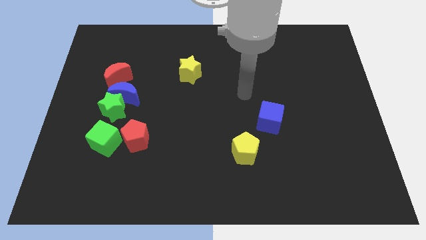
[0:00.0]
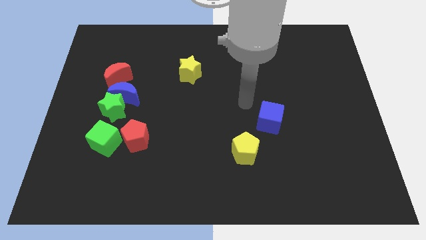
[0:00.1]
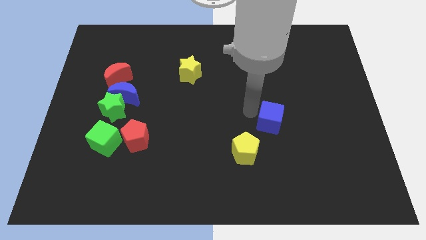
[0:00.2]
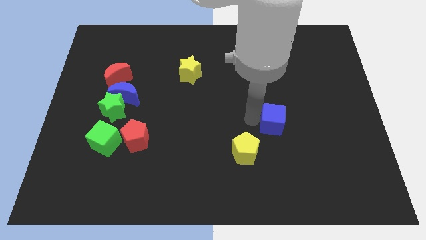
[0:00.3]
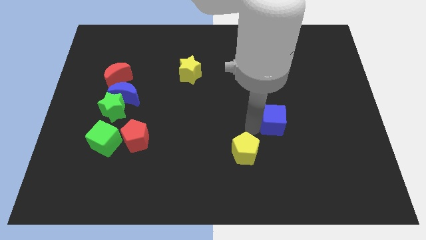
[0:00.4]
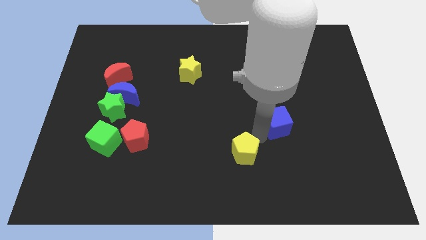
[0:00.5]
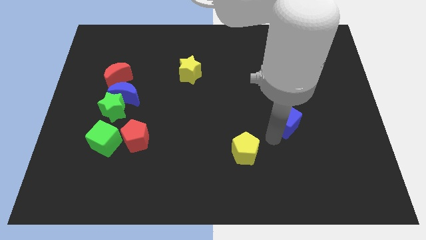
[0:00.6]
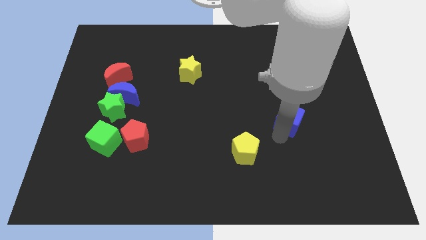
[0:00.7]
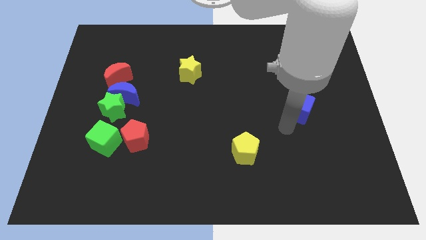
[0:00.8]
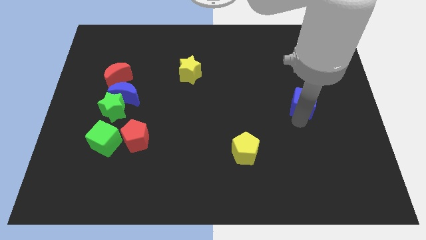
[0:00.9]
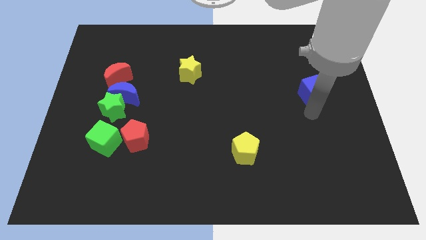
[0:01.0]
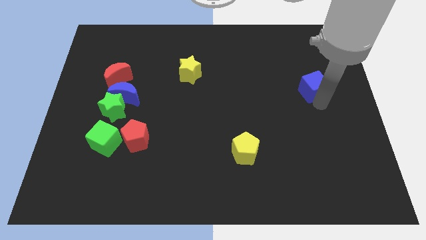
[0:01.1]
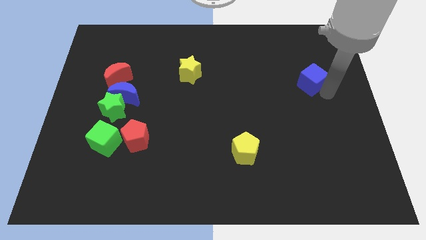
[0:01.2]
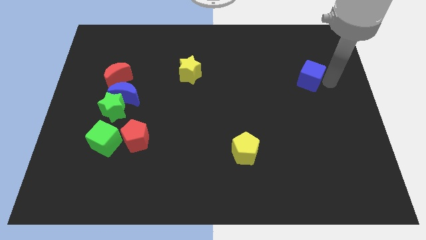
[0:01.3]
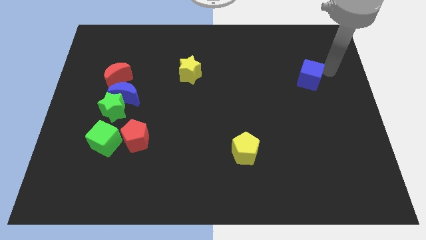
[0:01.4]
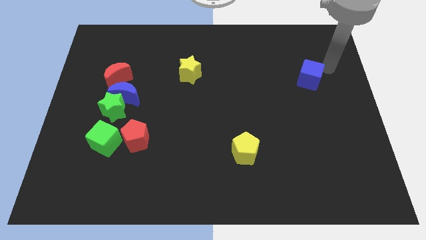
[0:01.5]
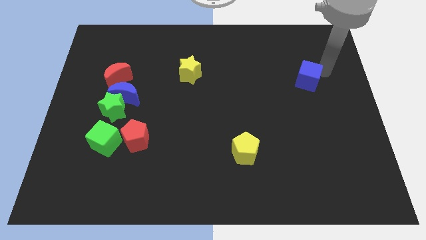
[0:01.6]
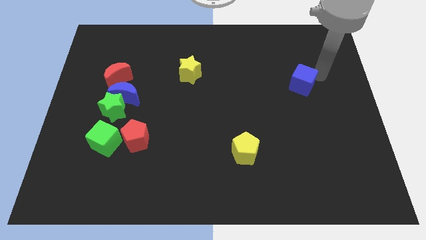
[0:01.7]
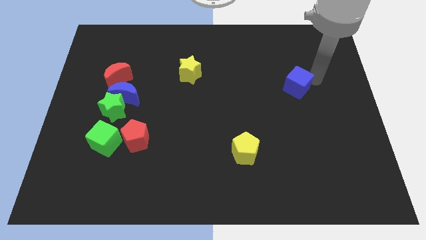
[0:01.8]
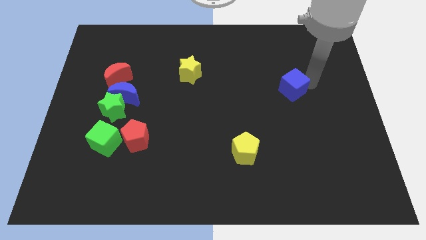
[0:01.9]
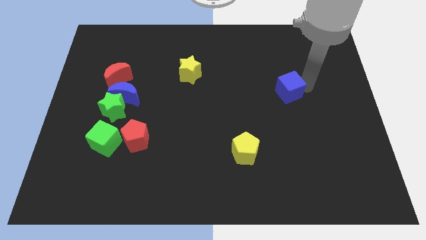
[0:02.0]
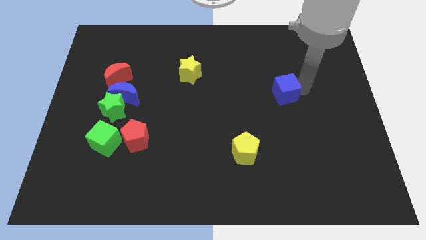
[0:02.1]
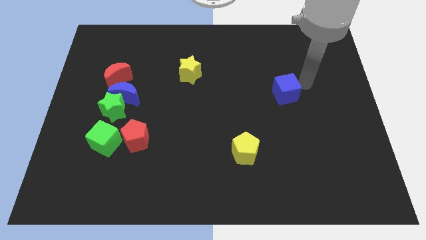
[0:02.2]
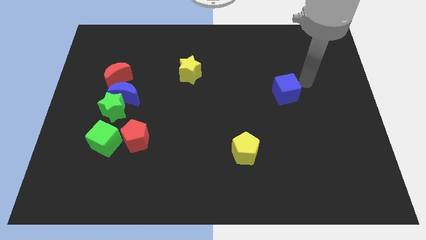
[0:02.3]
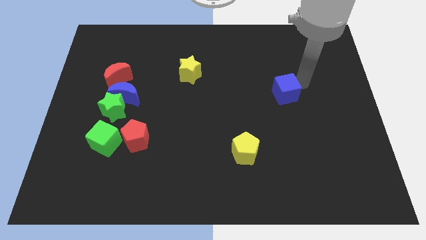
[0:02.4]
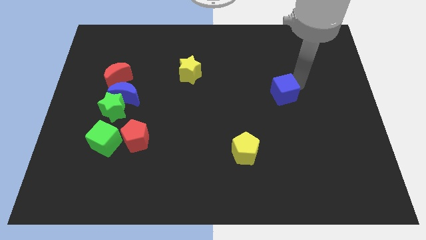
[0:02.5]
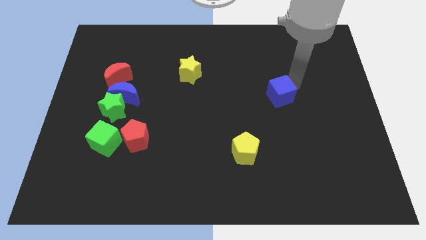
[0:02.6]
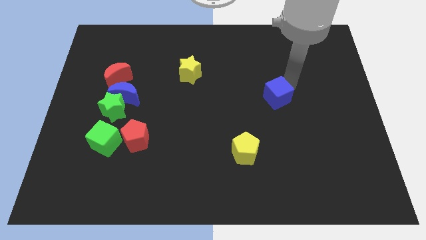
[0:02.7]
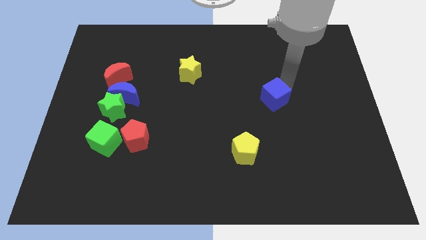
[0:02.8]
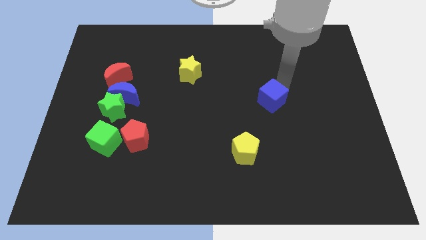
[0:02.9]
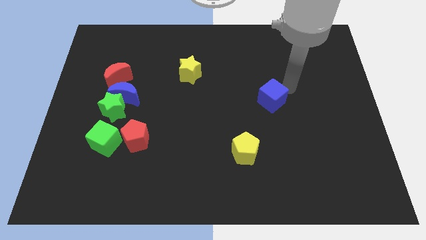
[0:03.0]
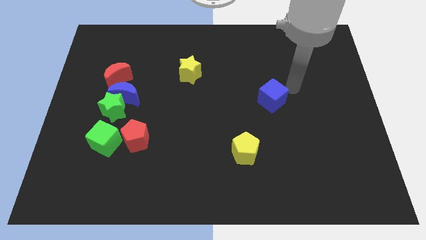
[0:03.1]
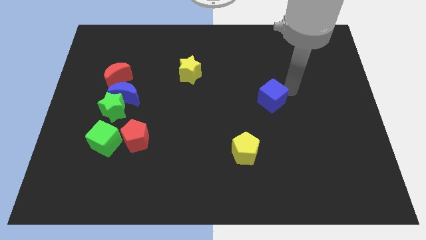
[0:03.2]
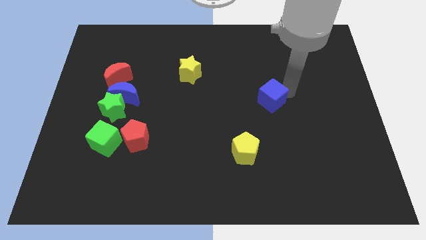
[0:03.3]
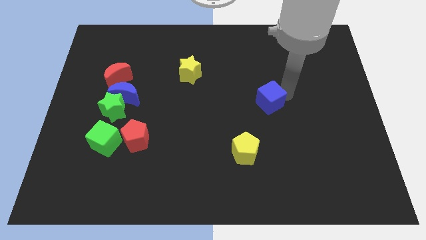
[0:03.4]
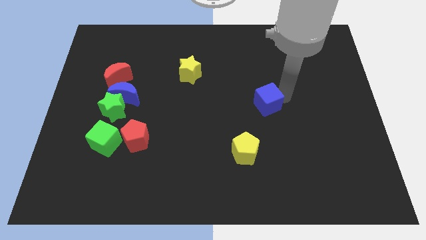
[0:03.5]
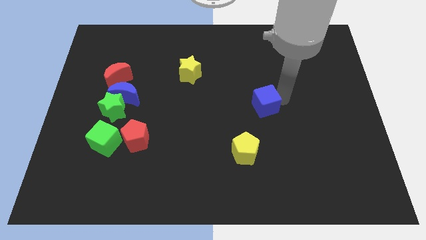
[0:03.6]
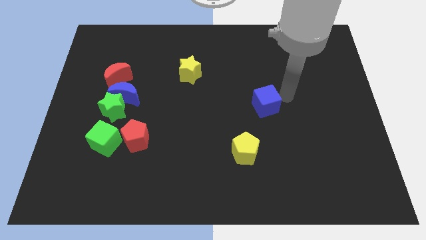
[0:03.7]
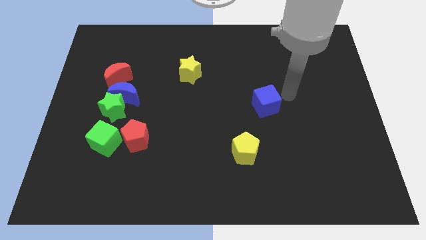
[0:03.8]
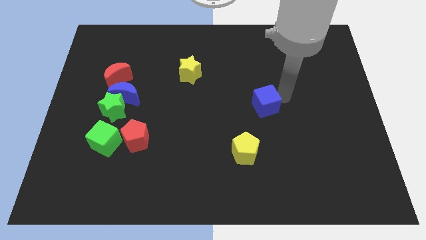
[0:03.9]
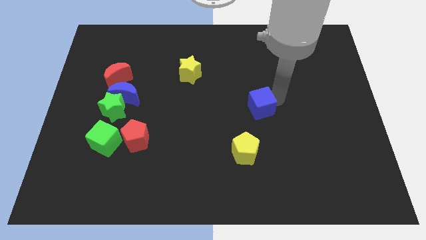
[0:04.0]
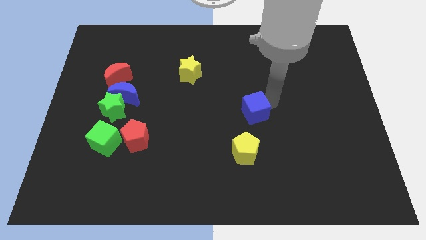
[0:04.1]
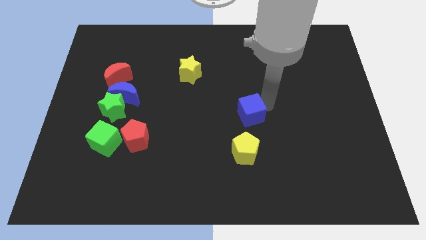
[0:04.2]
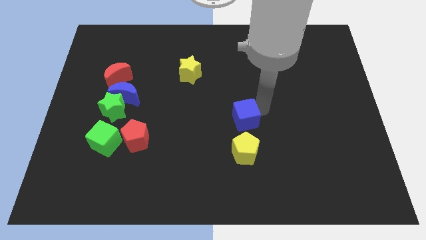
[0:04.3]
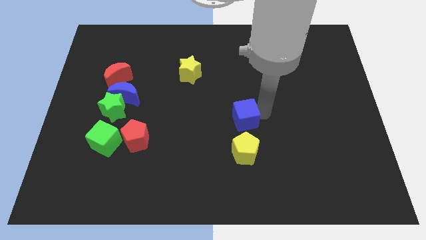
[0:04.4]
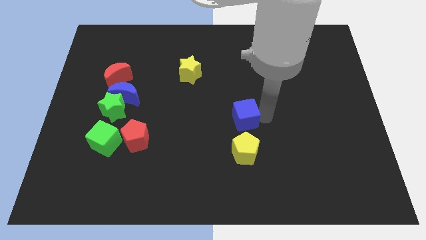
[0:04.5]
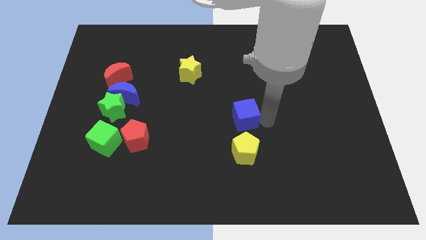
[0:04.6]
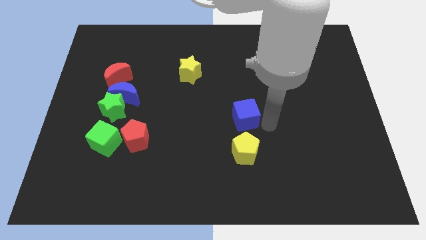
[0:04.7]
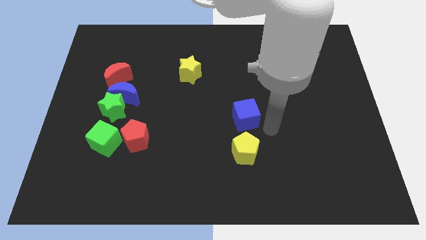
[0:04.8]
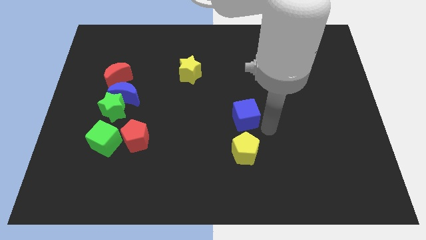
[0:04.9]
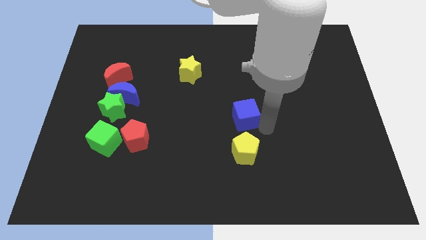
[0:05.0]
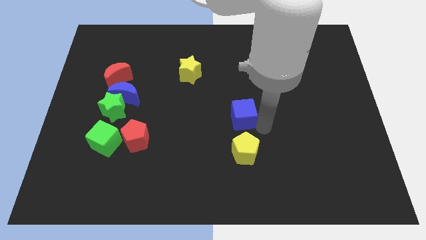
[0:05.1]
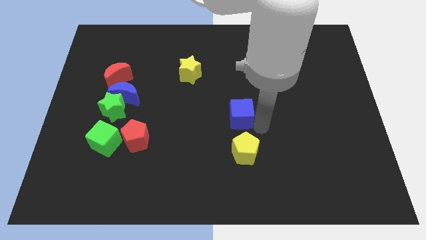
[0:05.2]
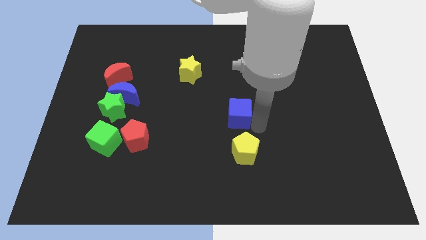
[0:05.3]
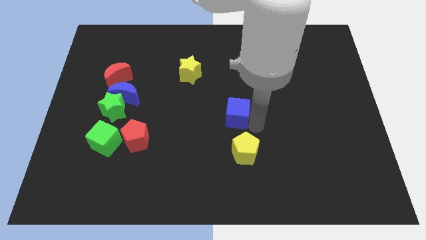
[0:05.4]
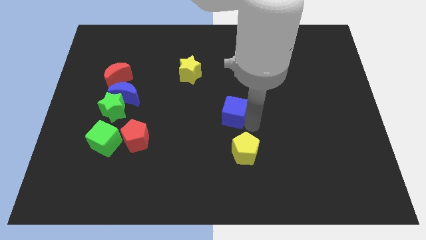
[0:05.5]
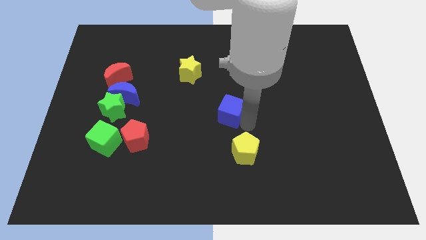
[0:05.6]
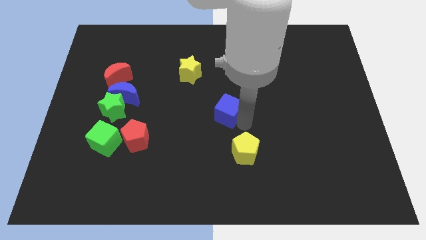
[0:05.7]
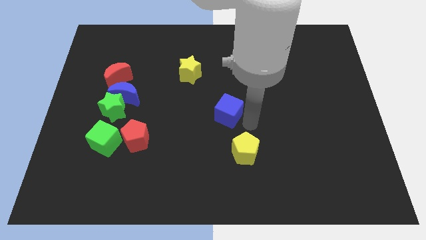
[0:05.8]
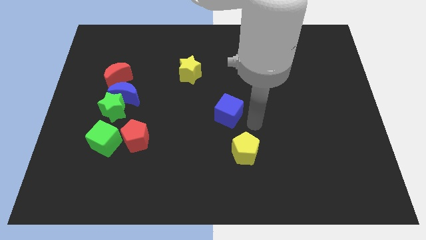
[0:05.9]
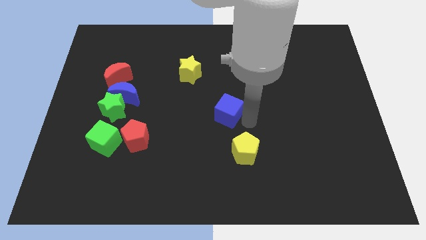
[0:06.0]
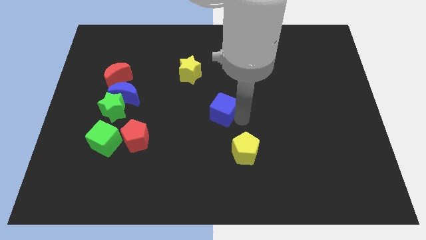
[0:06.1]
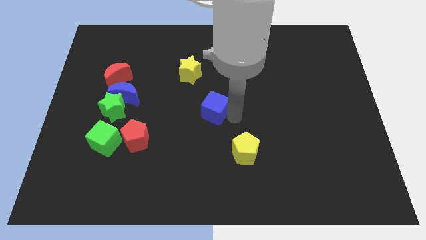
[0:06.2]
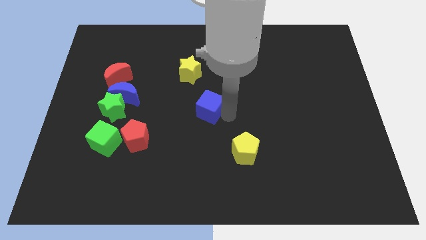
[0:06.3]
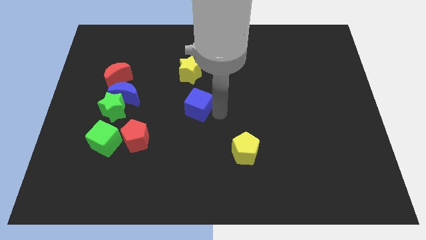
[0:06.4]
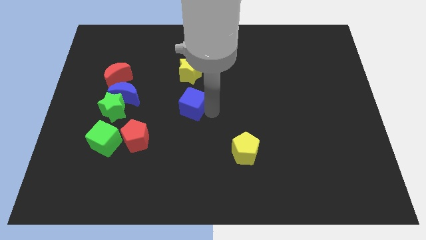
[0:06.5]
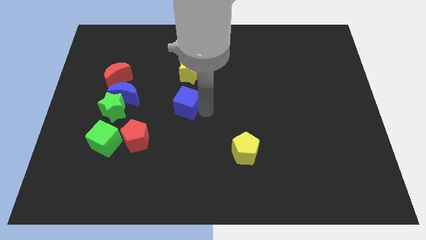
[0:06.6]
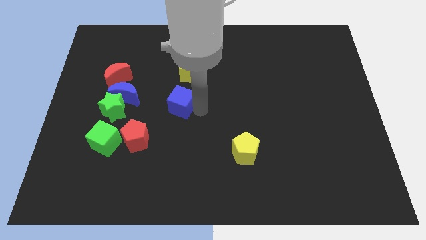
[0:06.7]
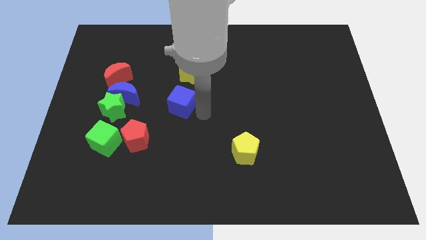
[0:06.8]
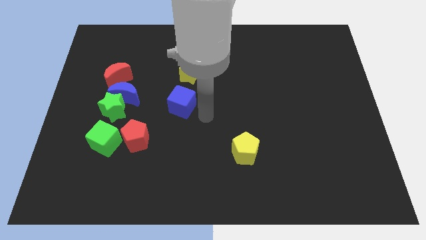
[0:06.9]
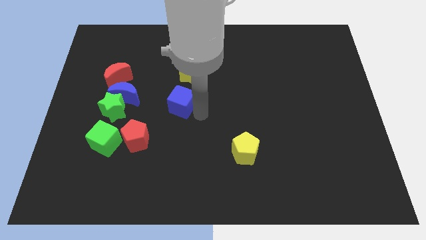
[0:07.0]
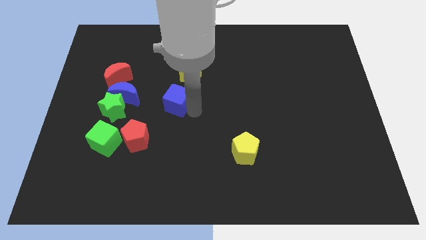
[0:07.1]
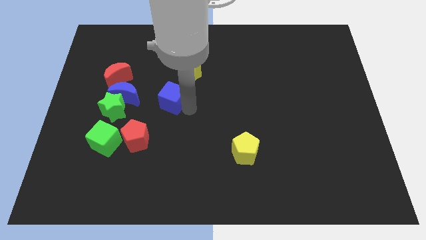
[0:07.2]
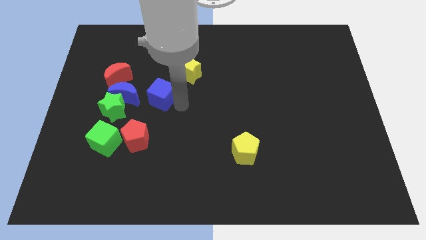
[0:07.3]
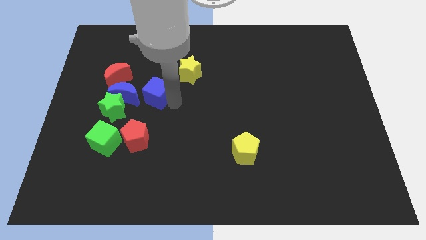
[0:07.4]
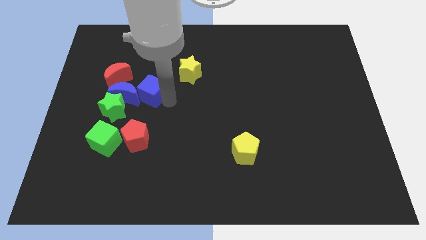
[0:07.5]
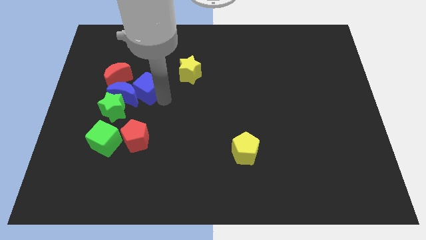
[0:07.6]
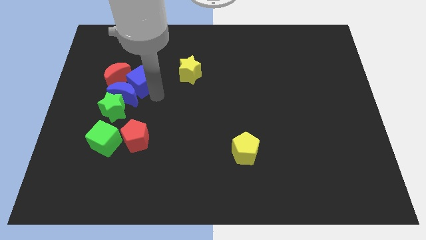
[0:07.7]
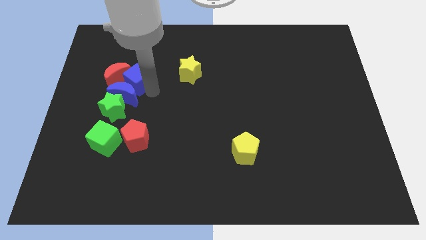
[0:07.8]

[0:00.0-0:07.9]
put the blue cube next to the red moon
